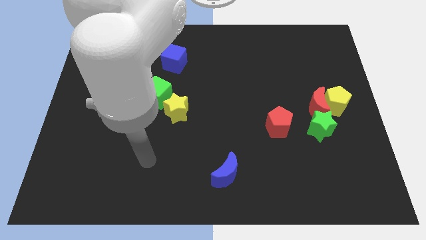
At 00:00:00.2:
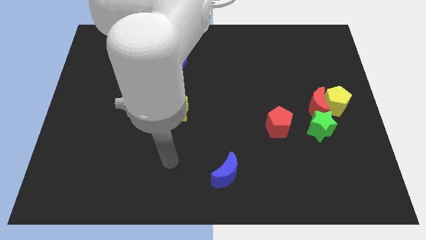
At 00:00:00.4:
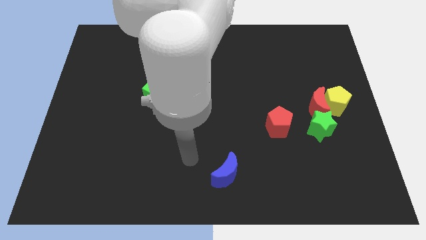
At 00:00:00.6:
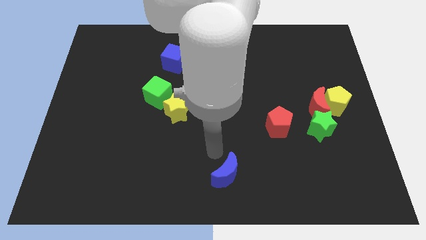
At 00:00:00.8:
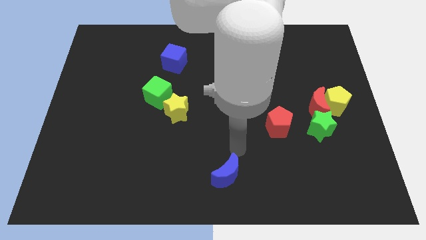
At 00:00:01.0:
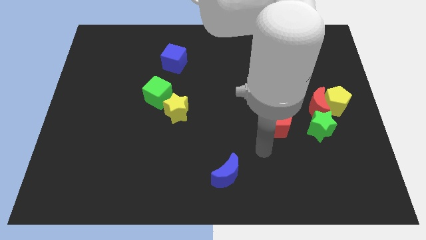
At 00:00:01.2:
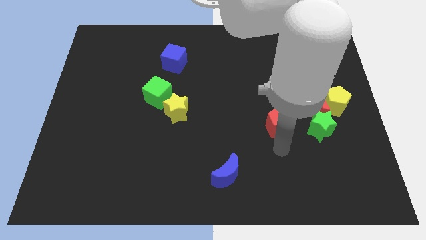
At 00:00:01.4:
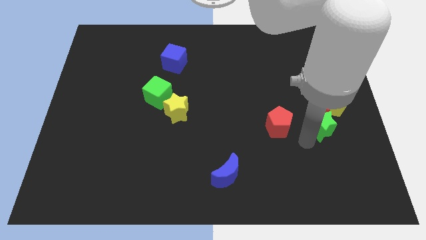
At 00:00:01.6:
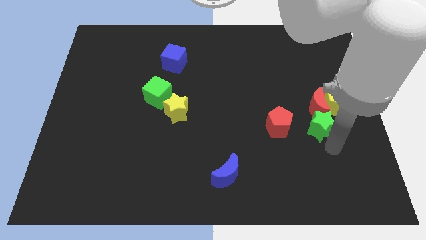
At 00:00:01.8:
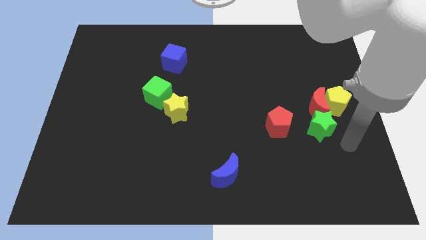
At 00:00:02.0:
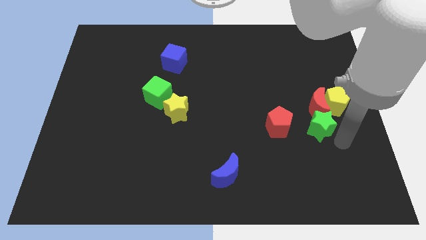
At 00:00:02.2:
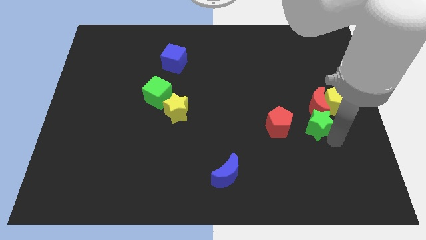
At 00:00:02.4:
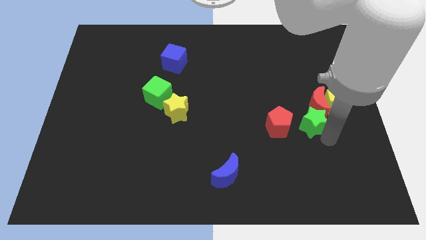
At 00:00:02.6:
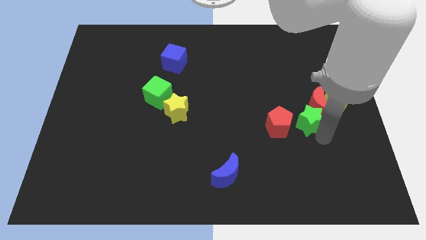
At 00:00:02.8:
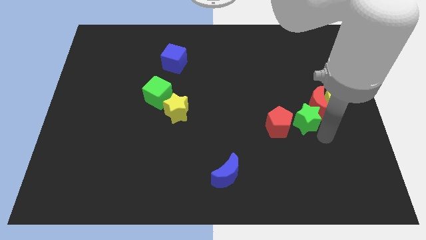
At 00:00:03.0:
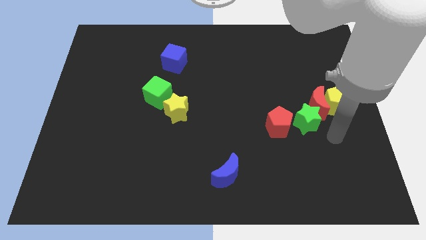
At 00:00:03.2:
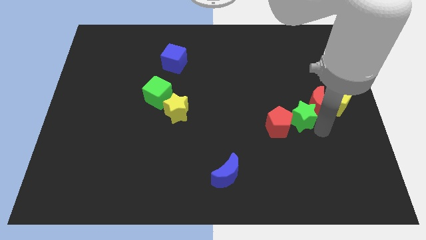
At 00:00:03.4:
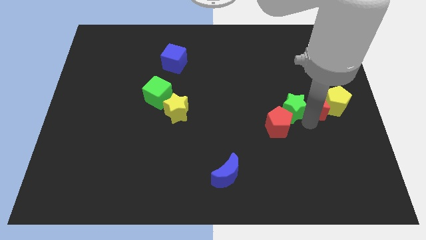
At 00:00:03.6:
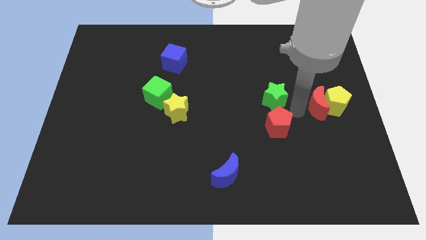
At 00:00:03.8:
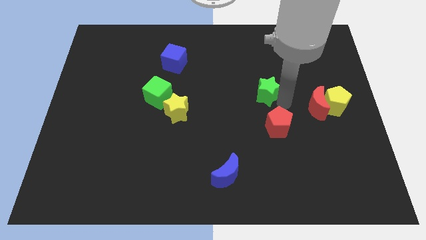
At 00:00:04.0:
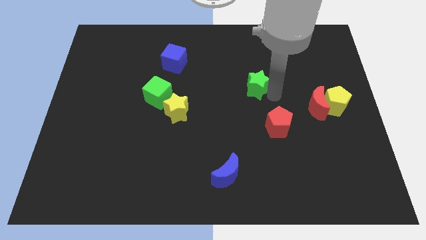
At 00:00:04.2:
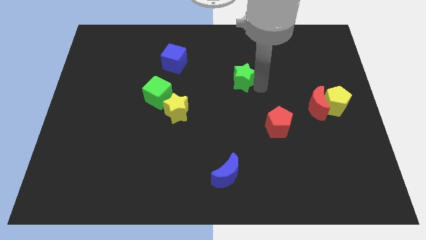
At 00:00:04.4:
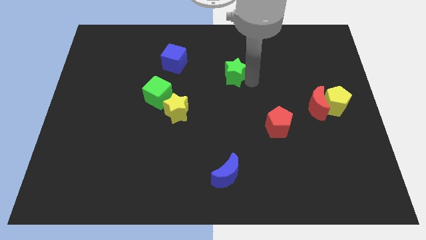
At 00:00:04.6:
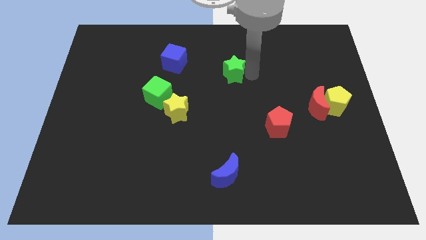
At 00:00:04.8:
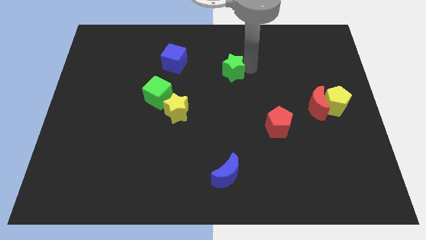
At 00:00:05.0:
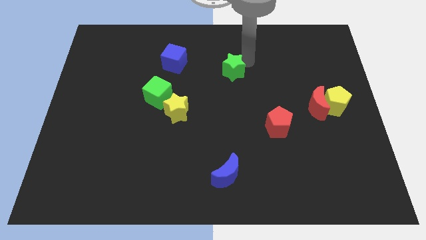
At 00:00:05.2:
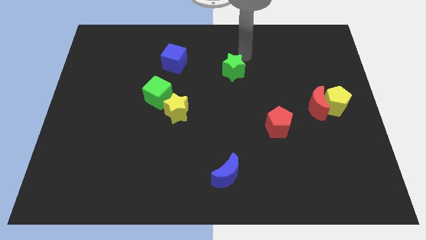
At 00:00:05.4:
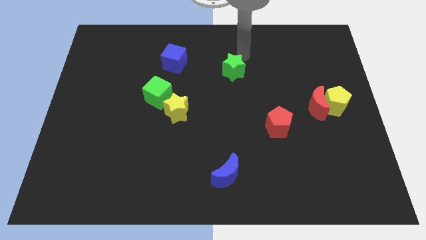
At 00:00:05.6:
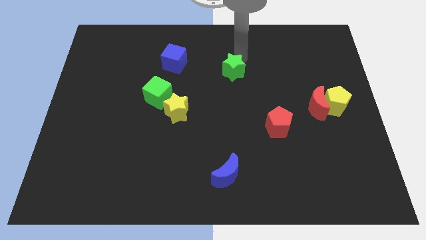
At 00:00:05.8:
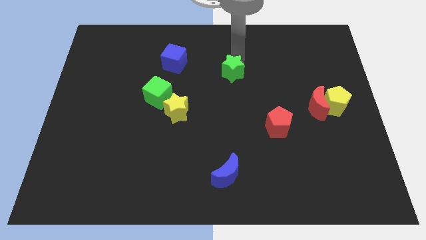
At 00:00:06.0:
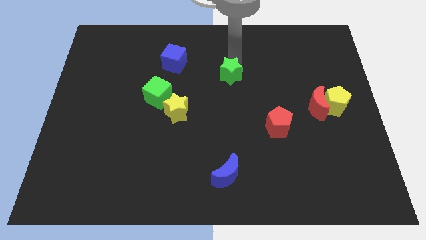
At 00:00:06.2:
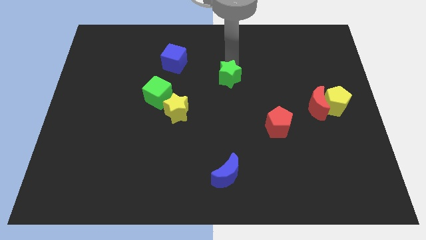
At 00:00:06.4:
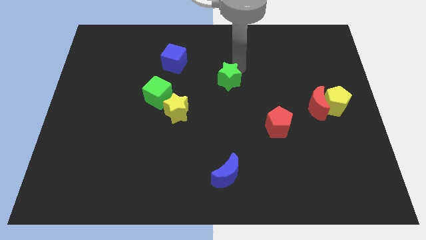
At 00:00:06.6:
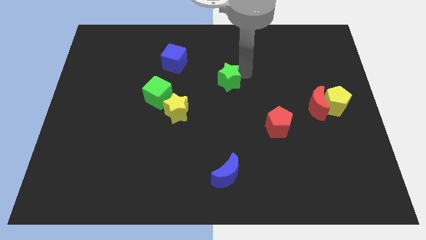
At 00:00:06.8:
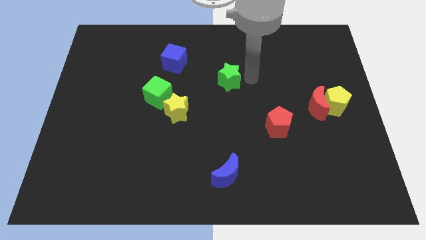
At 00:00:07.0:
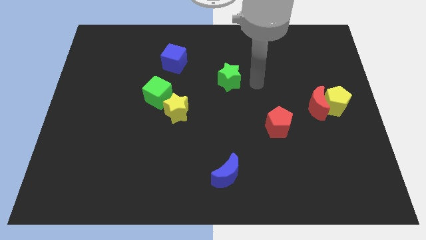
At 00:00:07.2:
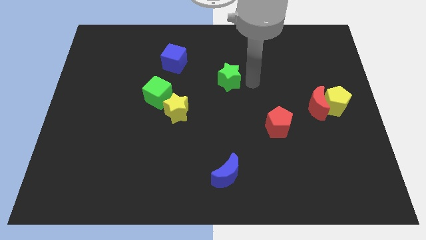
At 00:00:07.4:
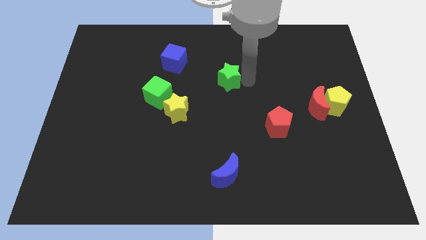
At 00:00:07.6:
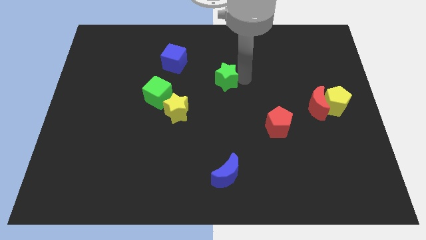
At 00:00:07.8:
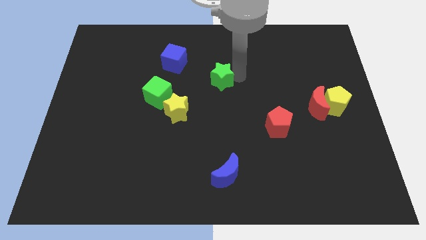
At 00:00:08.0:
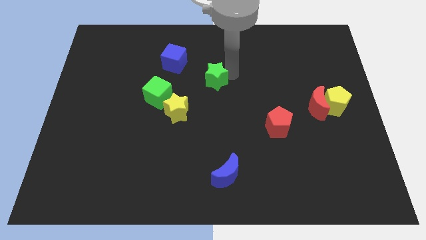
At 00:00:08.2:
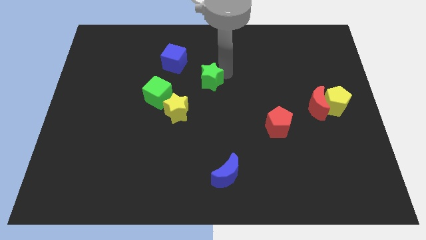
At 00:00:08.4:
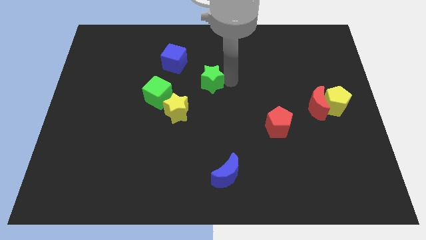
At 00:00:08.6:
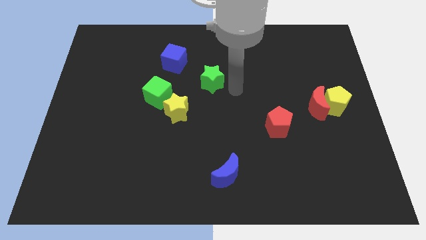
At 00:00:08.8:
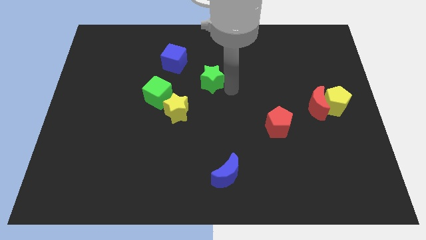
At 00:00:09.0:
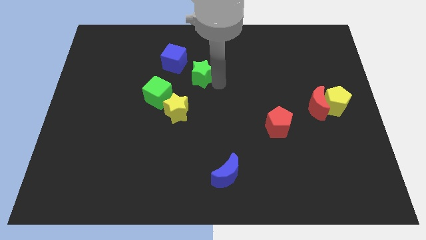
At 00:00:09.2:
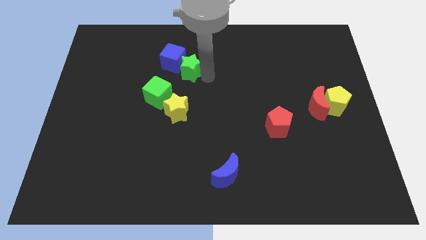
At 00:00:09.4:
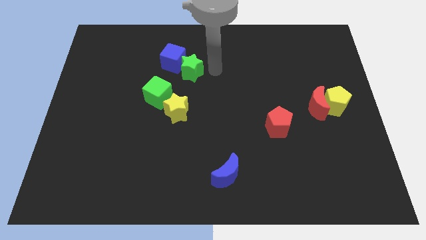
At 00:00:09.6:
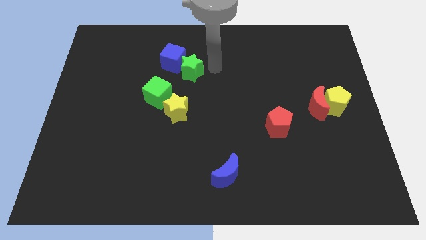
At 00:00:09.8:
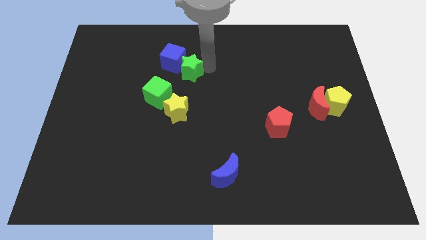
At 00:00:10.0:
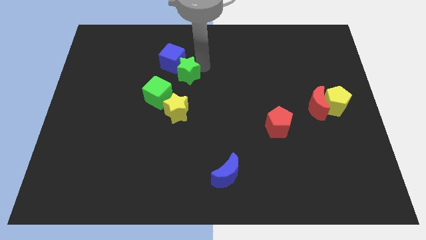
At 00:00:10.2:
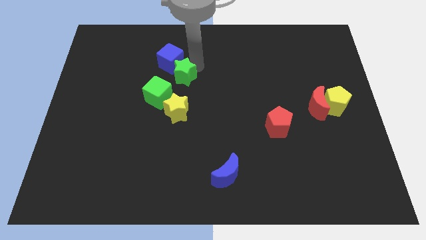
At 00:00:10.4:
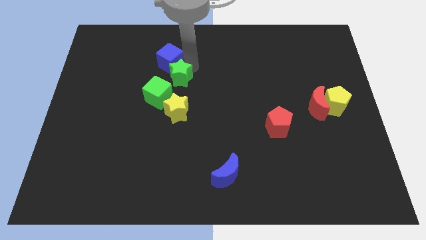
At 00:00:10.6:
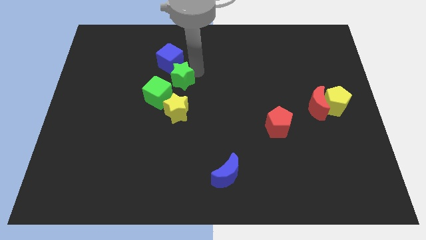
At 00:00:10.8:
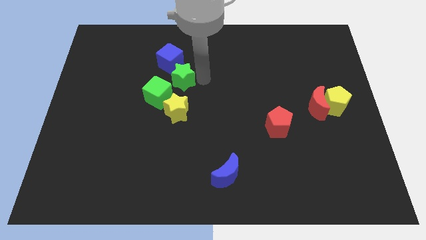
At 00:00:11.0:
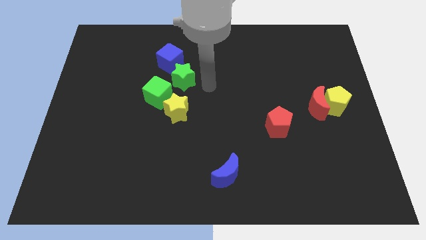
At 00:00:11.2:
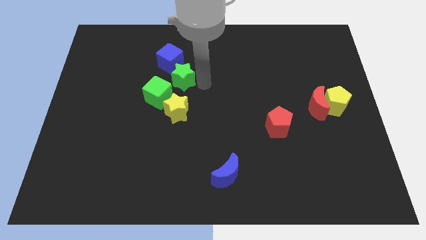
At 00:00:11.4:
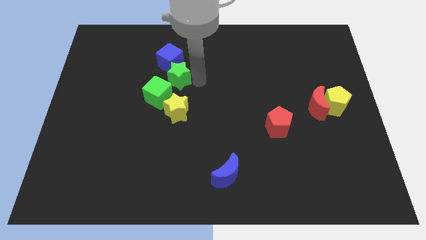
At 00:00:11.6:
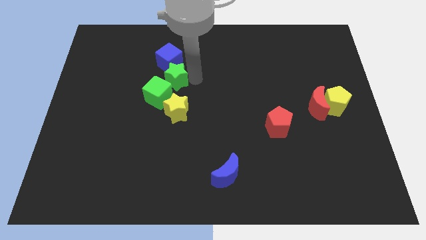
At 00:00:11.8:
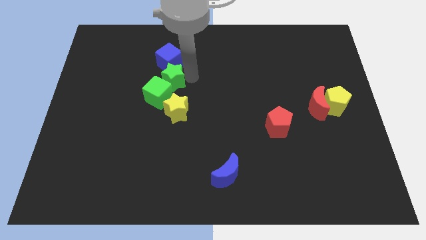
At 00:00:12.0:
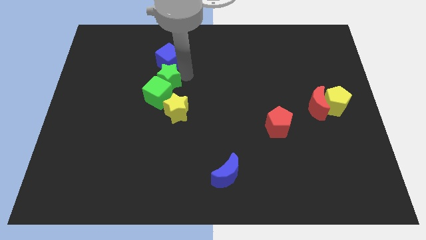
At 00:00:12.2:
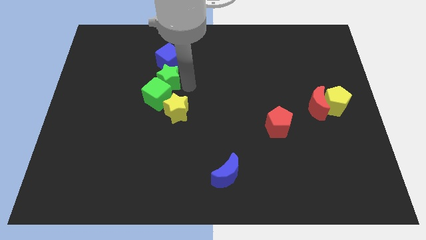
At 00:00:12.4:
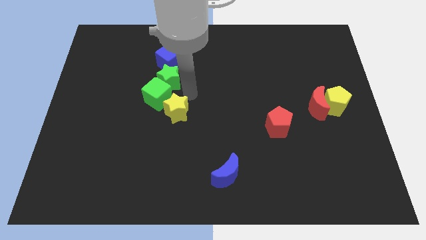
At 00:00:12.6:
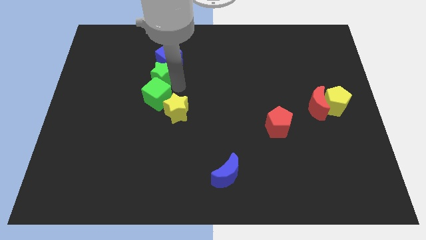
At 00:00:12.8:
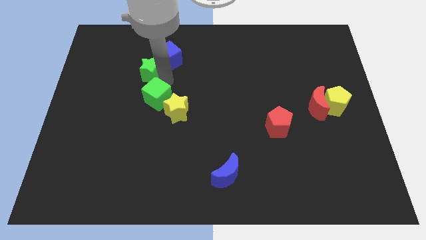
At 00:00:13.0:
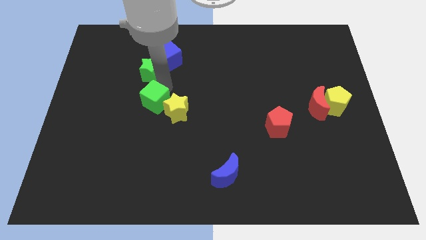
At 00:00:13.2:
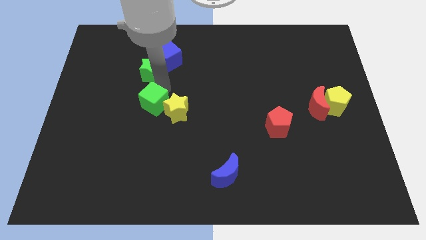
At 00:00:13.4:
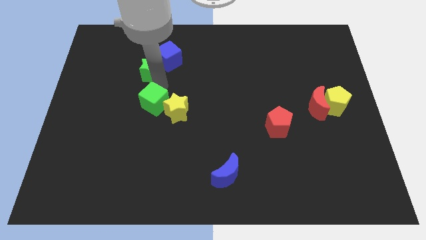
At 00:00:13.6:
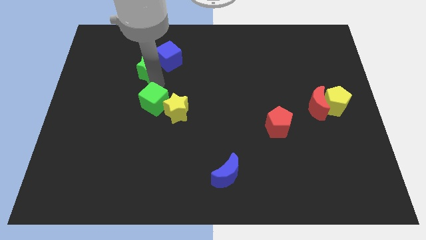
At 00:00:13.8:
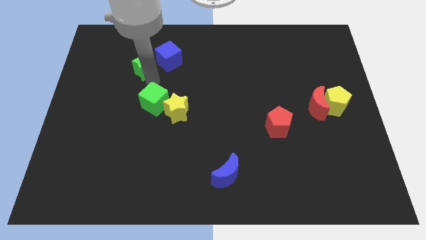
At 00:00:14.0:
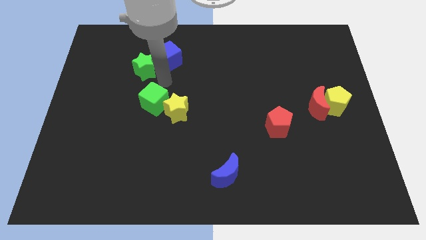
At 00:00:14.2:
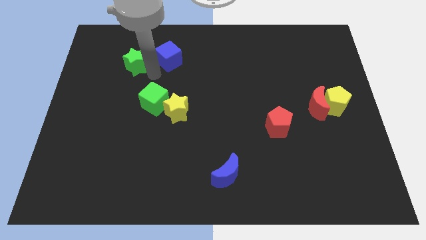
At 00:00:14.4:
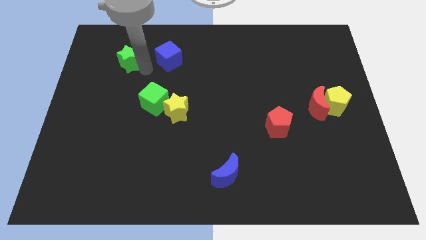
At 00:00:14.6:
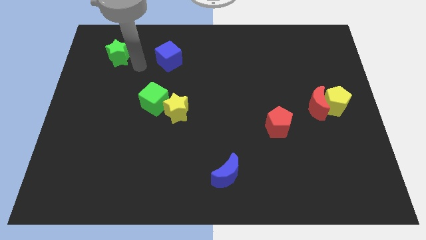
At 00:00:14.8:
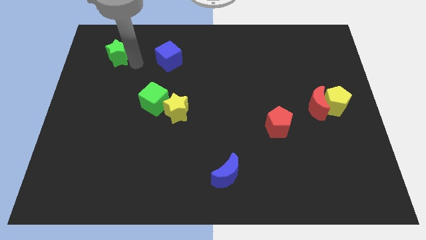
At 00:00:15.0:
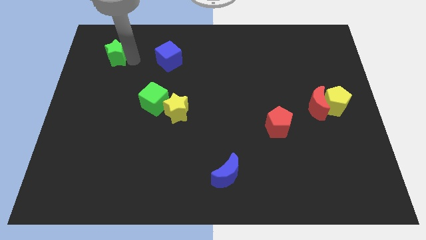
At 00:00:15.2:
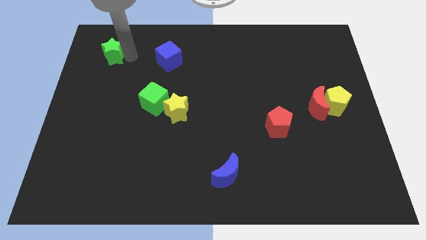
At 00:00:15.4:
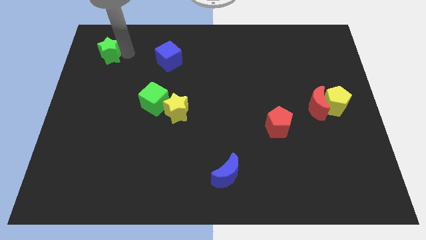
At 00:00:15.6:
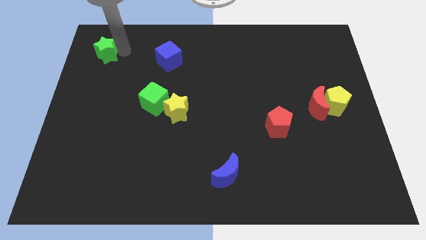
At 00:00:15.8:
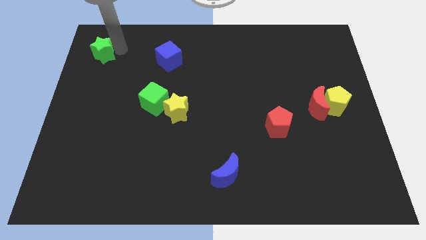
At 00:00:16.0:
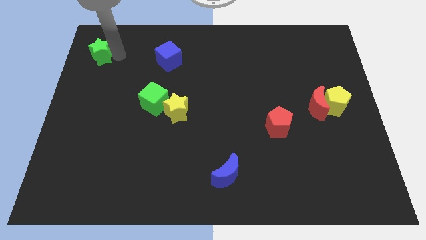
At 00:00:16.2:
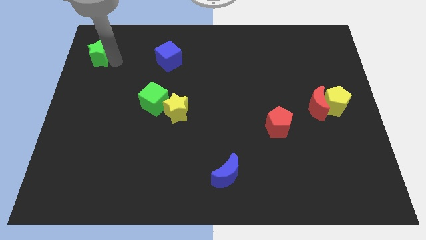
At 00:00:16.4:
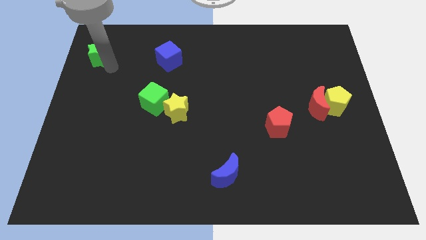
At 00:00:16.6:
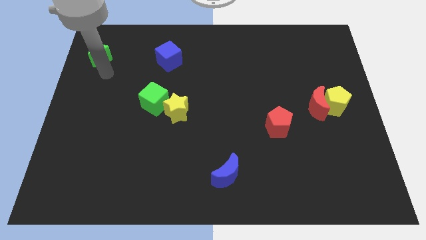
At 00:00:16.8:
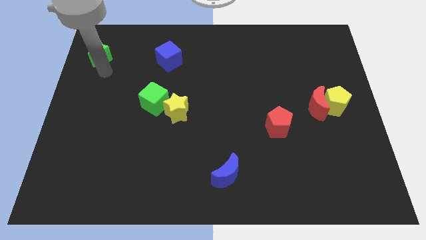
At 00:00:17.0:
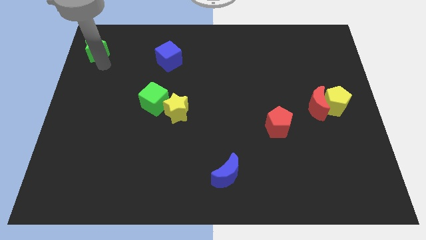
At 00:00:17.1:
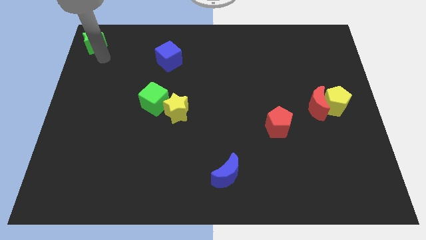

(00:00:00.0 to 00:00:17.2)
slide the green star to the upper left corner
